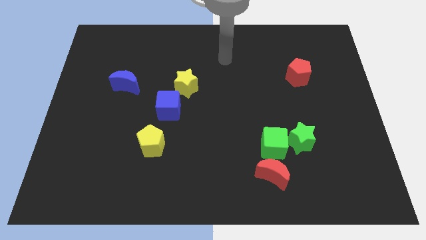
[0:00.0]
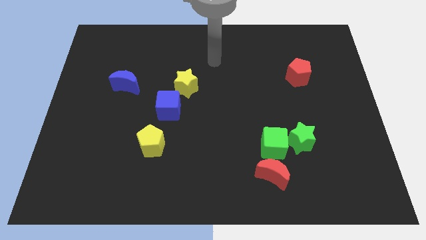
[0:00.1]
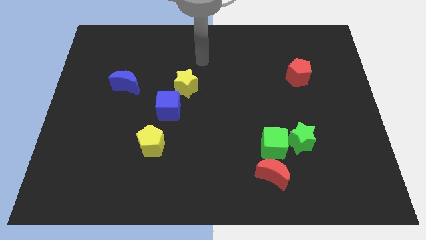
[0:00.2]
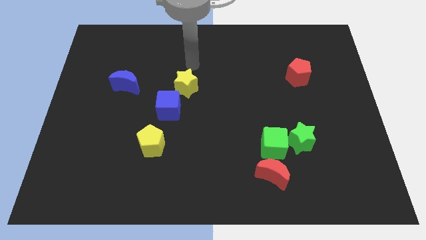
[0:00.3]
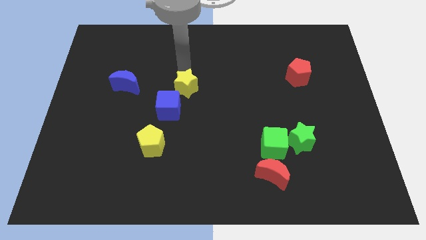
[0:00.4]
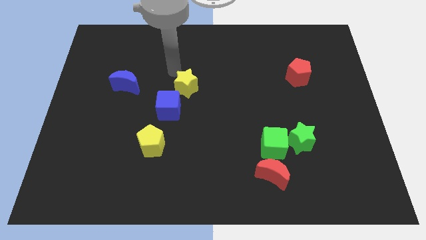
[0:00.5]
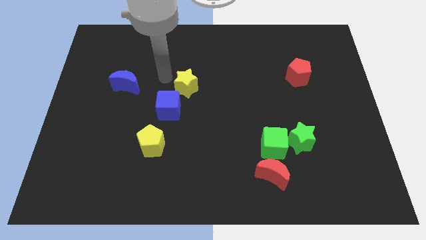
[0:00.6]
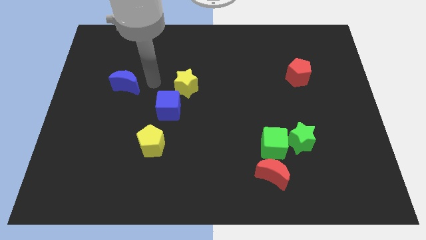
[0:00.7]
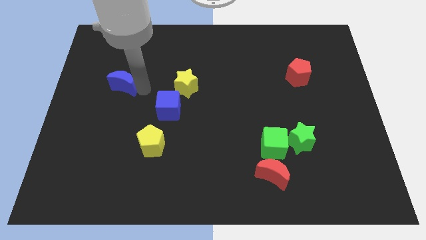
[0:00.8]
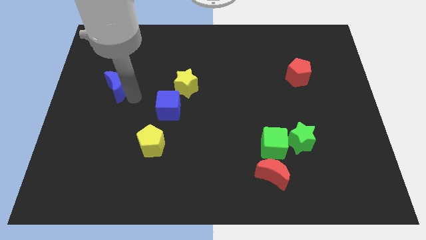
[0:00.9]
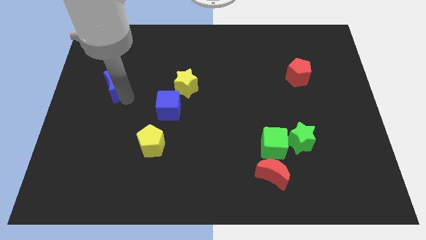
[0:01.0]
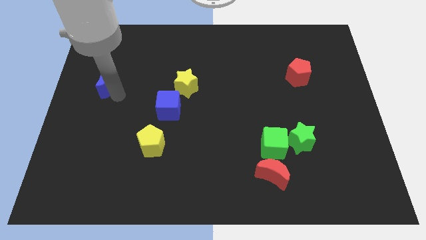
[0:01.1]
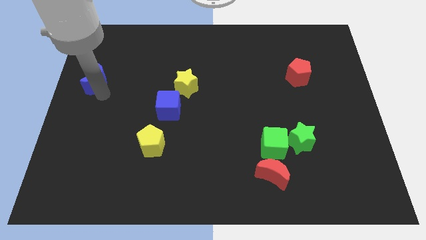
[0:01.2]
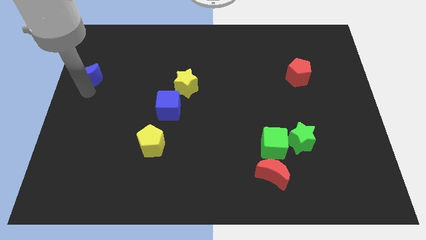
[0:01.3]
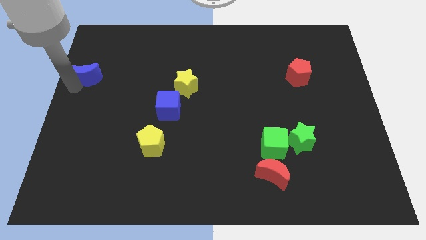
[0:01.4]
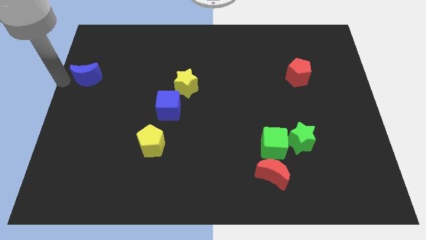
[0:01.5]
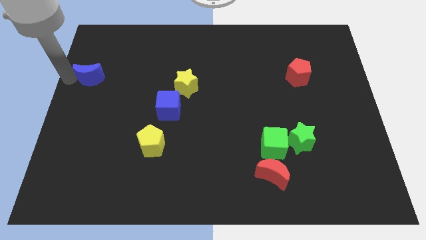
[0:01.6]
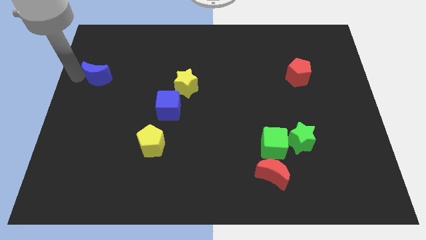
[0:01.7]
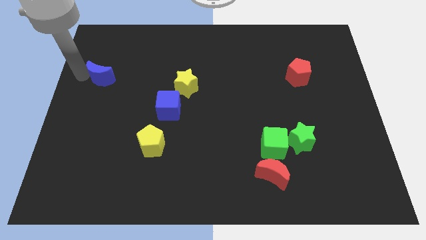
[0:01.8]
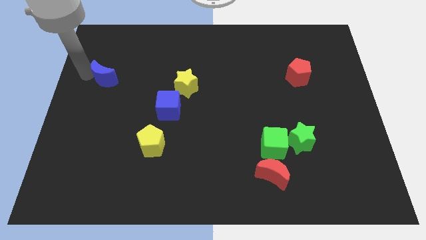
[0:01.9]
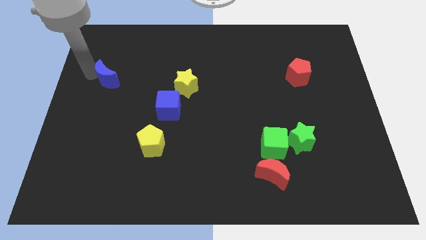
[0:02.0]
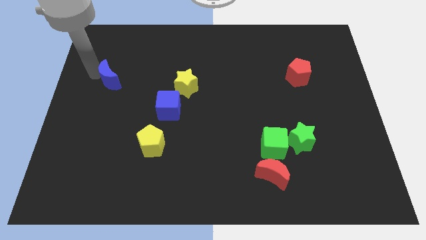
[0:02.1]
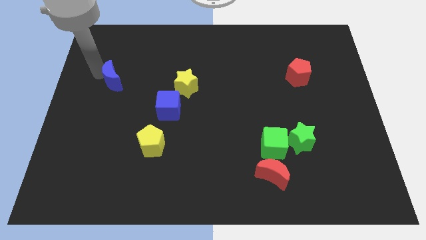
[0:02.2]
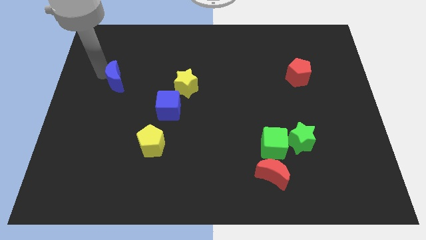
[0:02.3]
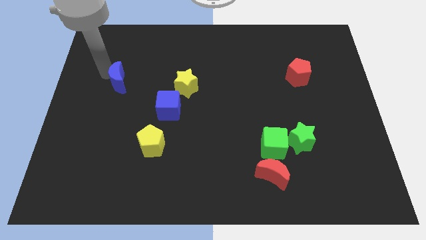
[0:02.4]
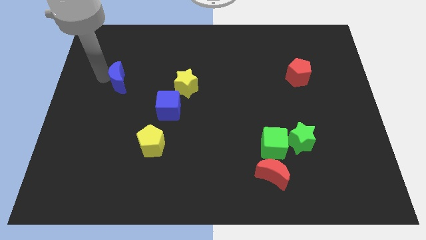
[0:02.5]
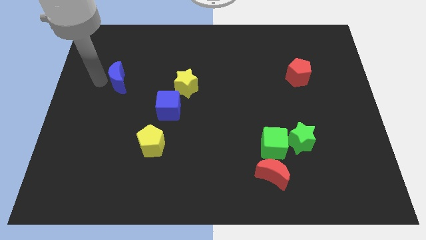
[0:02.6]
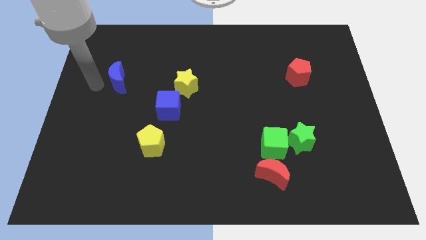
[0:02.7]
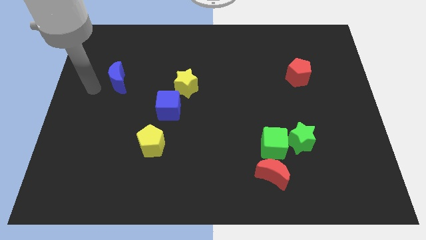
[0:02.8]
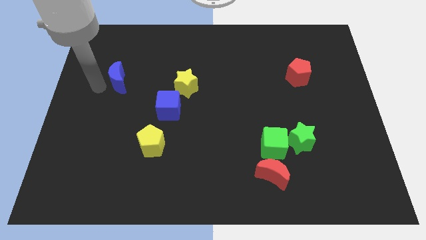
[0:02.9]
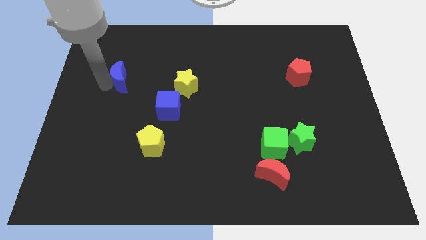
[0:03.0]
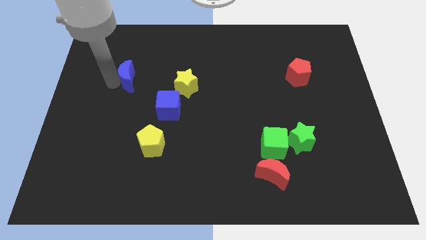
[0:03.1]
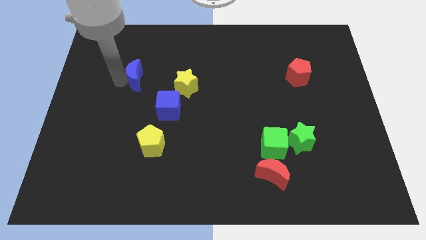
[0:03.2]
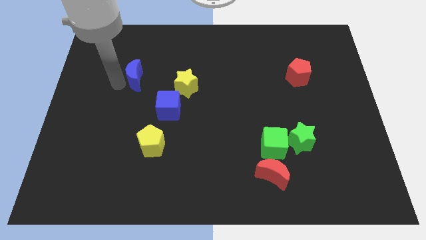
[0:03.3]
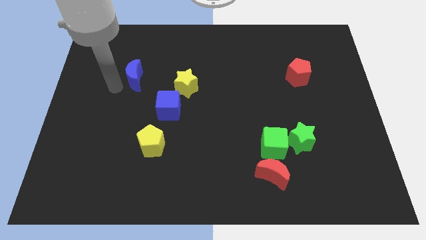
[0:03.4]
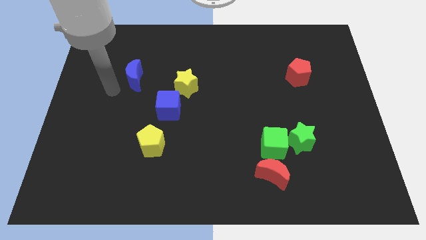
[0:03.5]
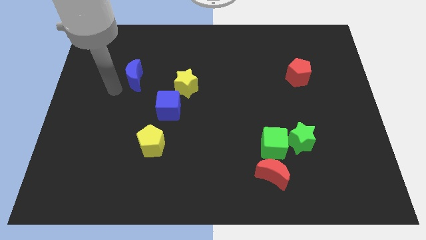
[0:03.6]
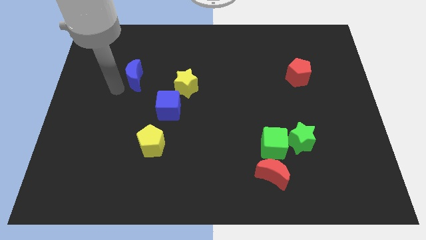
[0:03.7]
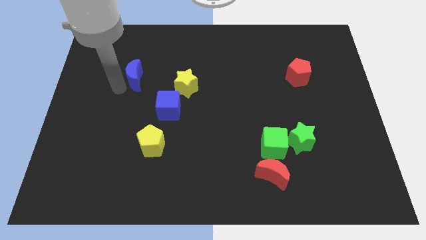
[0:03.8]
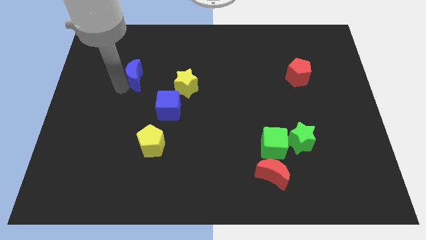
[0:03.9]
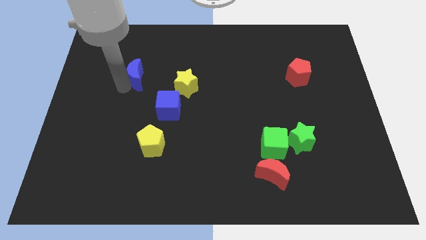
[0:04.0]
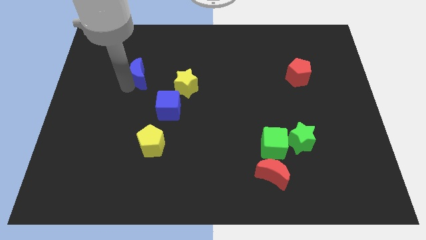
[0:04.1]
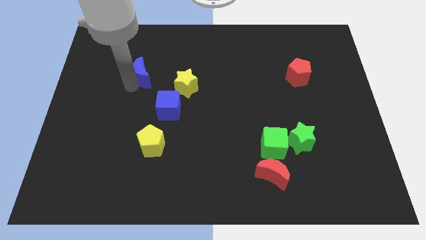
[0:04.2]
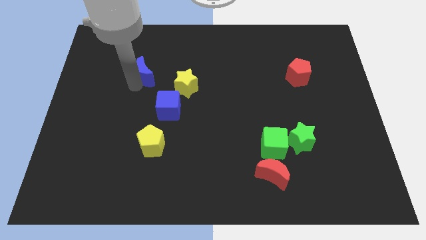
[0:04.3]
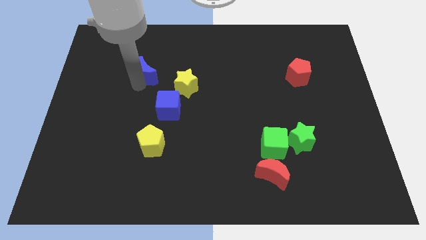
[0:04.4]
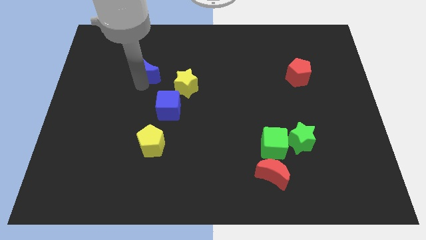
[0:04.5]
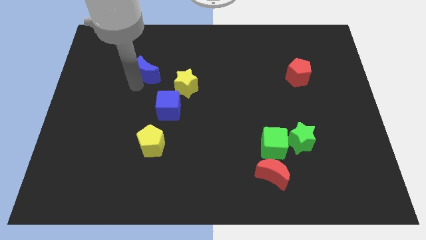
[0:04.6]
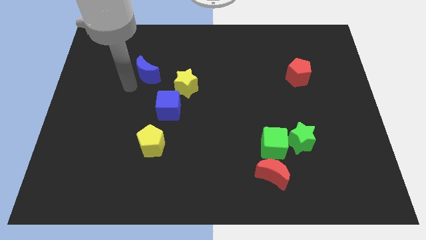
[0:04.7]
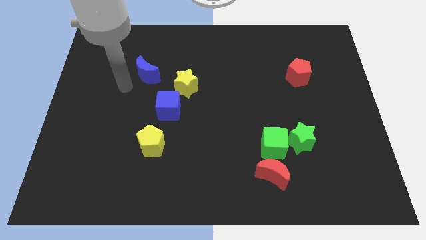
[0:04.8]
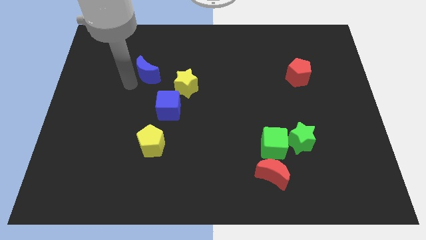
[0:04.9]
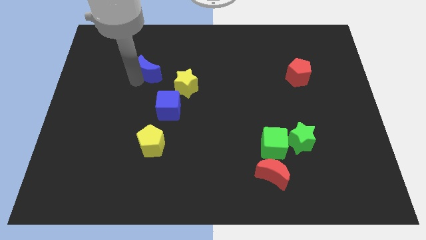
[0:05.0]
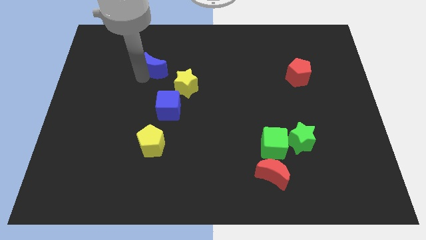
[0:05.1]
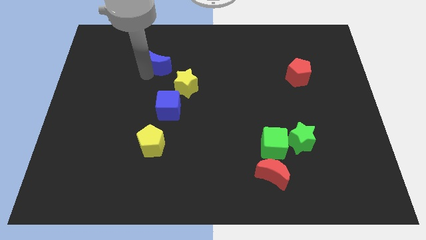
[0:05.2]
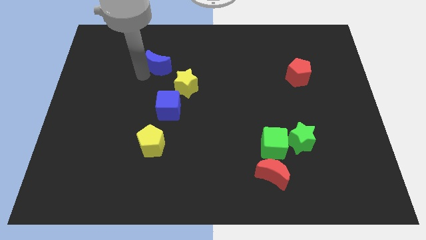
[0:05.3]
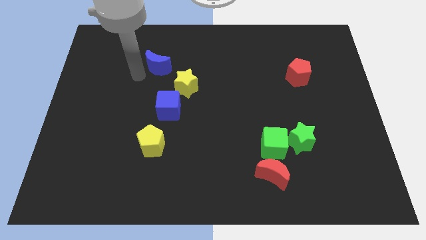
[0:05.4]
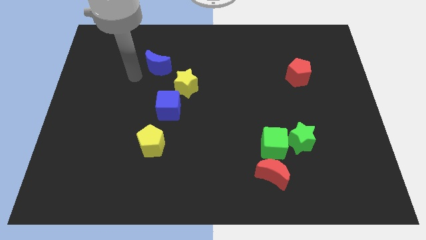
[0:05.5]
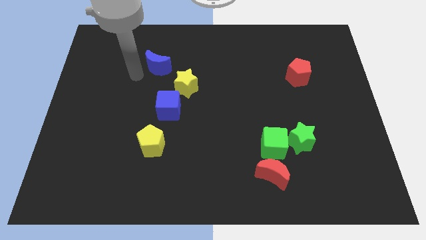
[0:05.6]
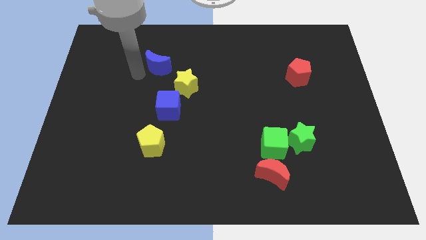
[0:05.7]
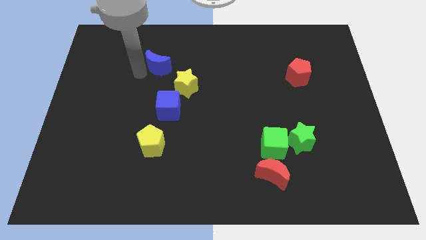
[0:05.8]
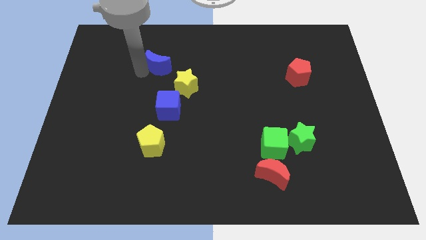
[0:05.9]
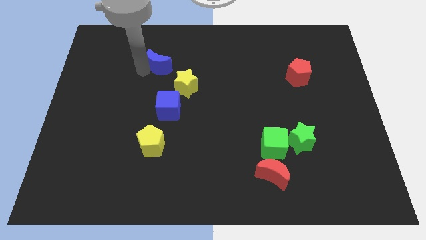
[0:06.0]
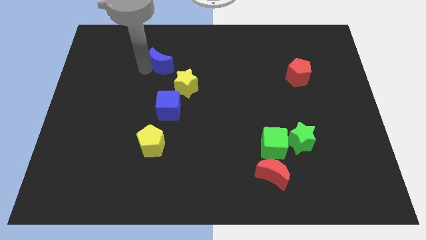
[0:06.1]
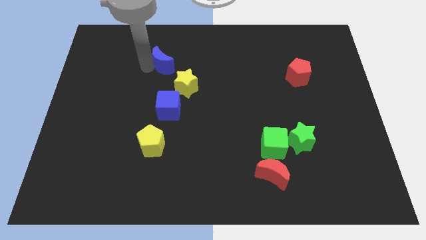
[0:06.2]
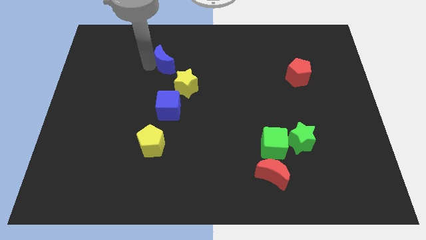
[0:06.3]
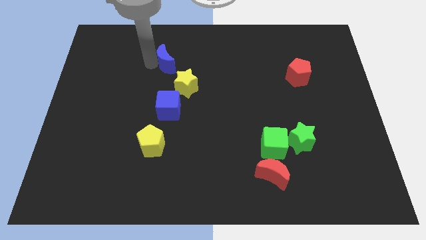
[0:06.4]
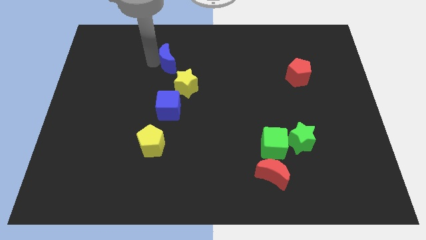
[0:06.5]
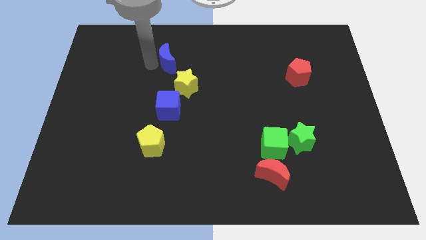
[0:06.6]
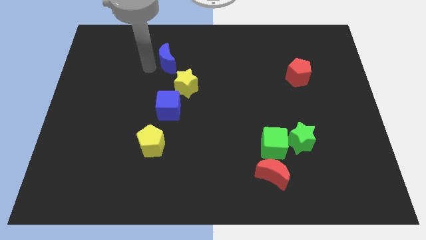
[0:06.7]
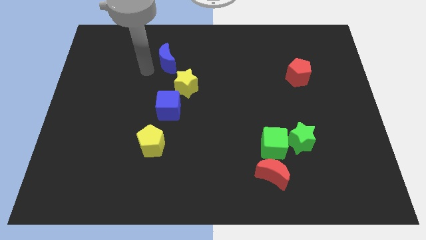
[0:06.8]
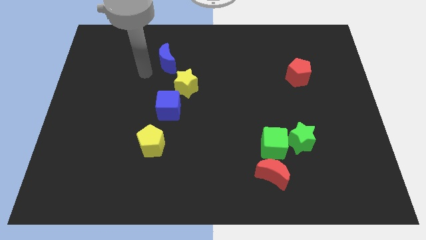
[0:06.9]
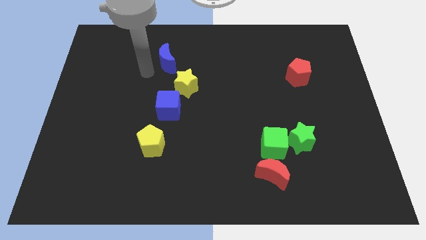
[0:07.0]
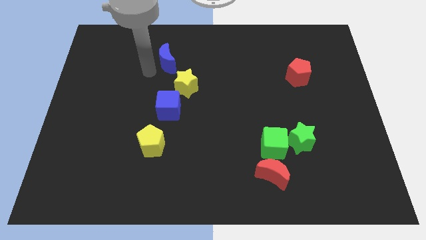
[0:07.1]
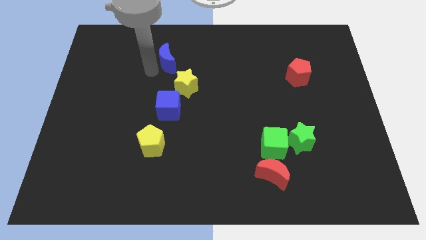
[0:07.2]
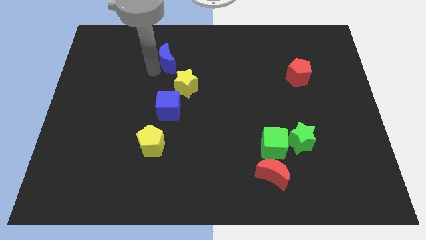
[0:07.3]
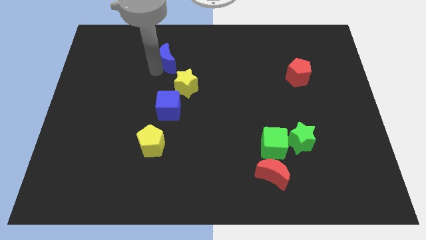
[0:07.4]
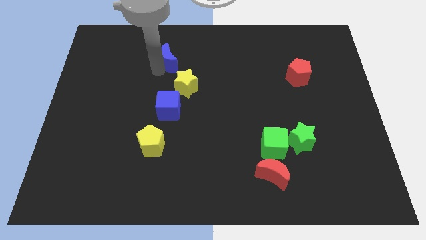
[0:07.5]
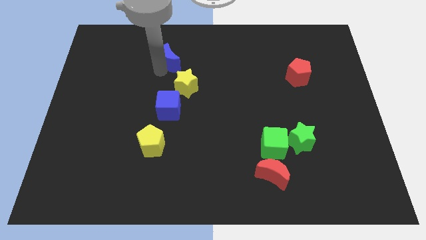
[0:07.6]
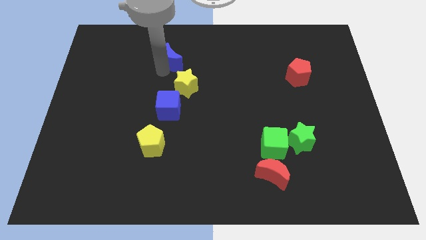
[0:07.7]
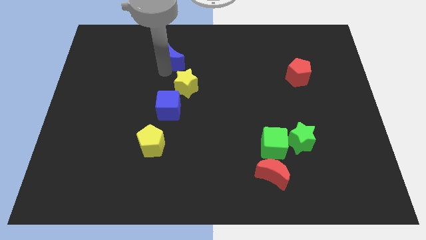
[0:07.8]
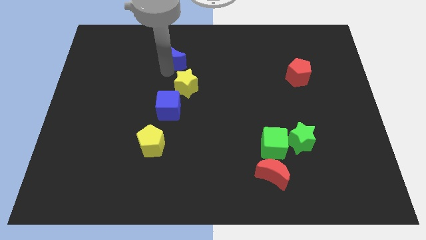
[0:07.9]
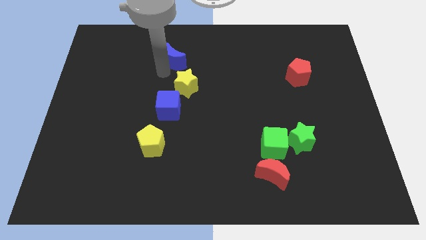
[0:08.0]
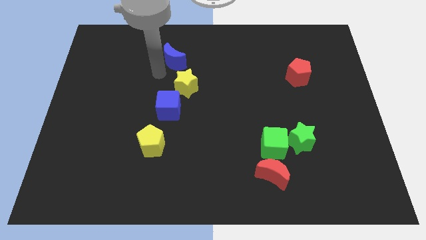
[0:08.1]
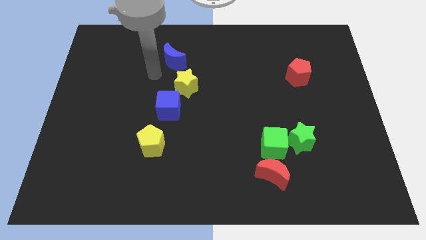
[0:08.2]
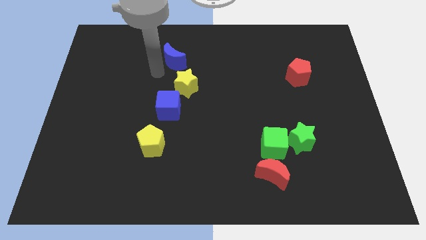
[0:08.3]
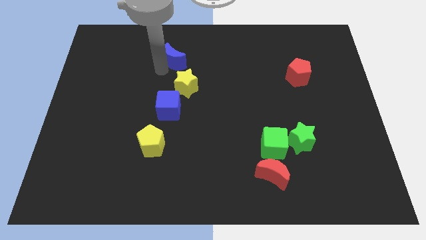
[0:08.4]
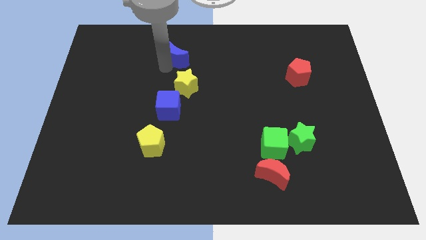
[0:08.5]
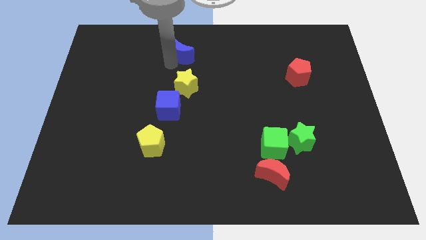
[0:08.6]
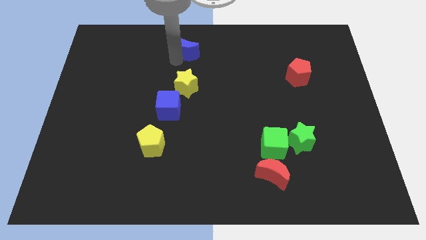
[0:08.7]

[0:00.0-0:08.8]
put the blue moon to the top
